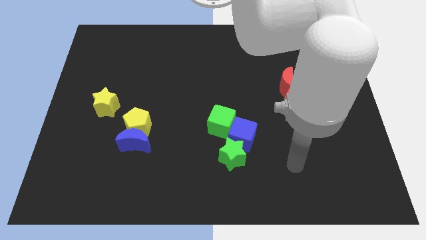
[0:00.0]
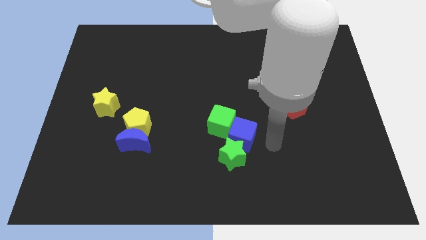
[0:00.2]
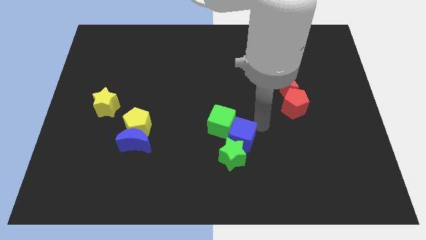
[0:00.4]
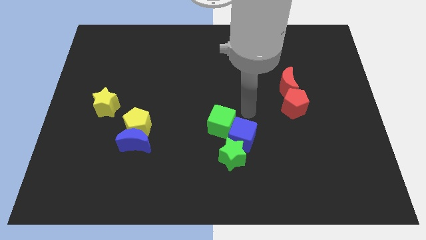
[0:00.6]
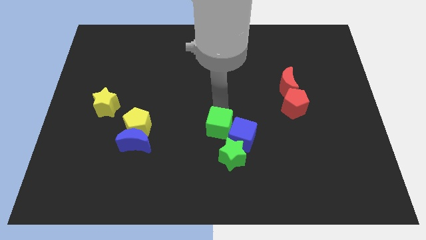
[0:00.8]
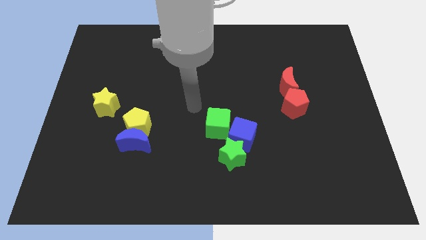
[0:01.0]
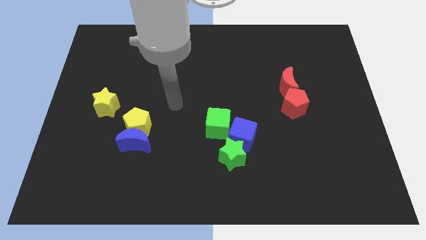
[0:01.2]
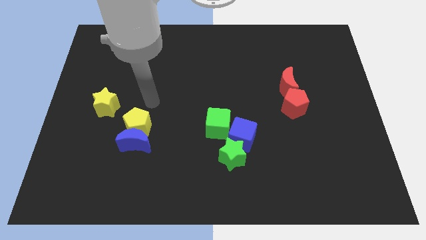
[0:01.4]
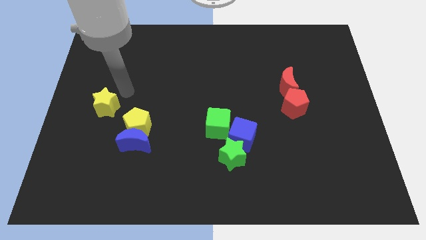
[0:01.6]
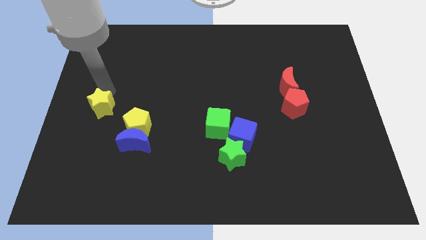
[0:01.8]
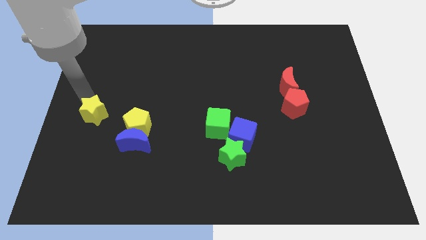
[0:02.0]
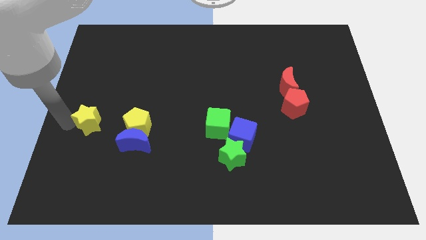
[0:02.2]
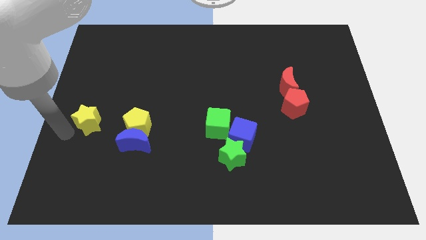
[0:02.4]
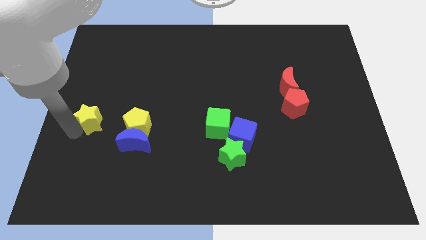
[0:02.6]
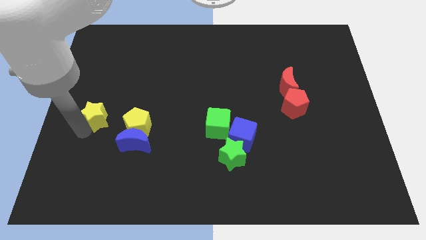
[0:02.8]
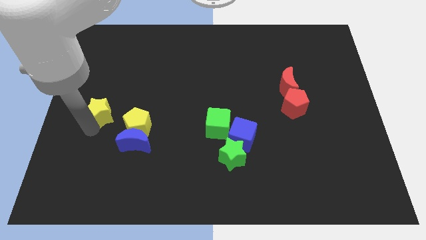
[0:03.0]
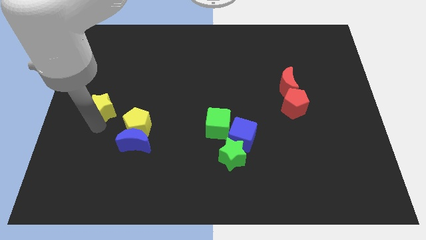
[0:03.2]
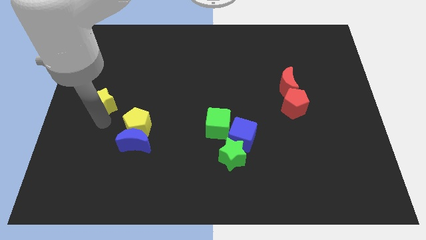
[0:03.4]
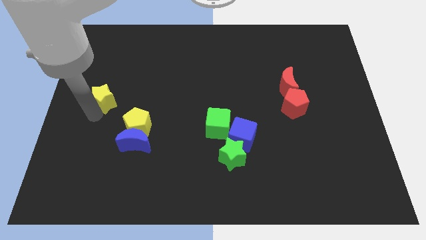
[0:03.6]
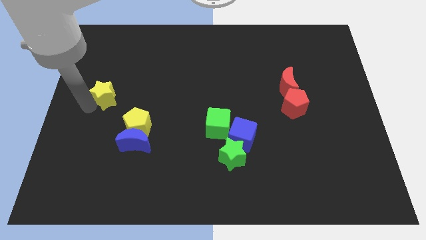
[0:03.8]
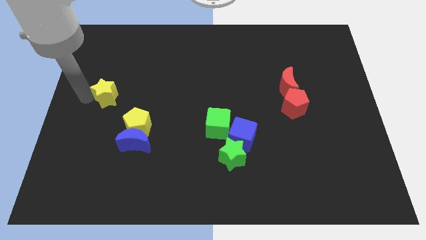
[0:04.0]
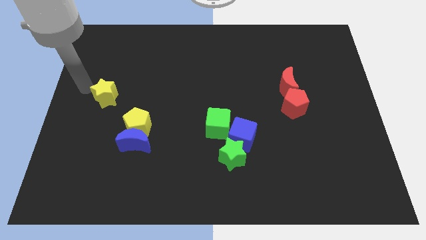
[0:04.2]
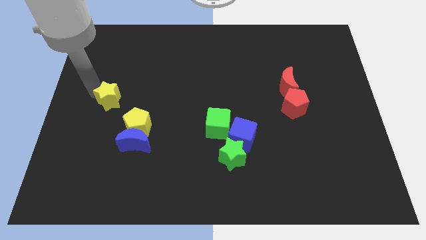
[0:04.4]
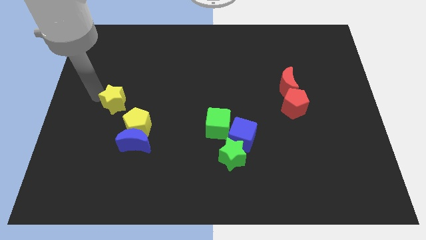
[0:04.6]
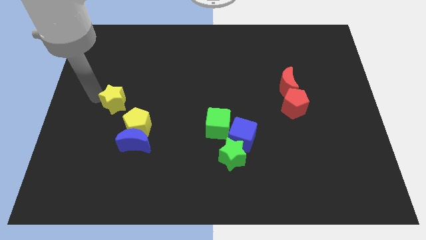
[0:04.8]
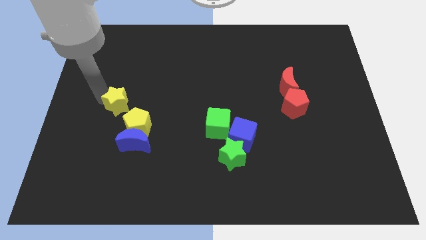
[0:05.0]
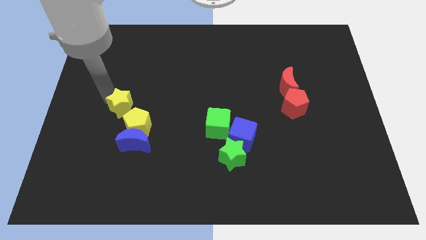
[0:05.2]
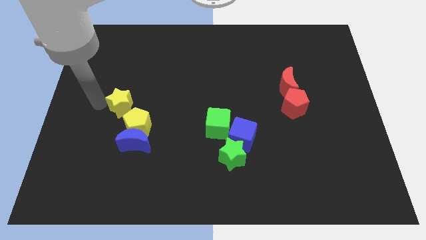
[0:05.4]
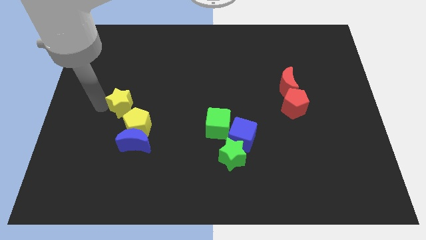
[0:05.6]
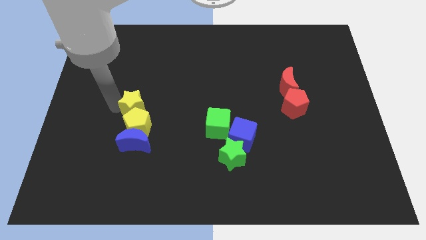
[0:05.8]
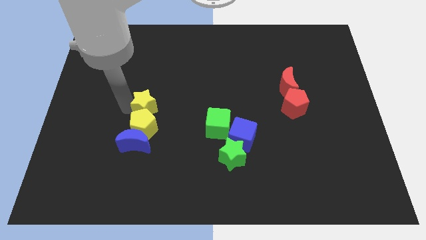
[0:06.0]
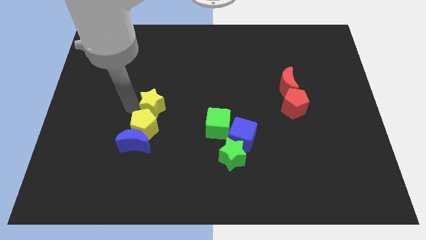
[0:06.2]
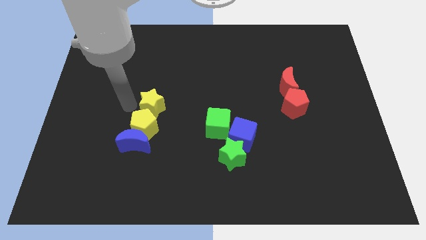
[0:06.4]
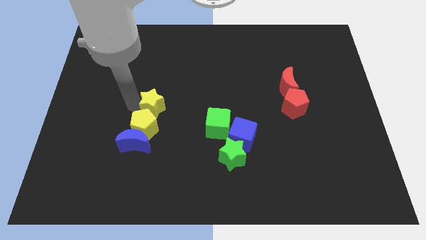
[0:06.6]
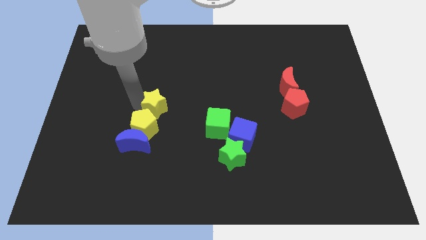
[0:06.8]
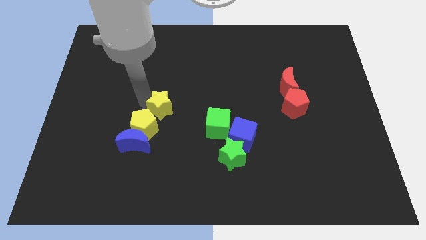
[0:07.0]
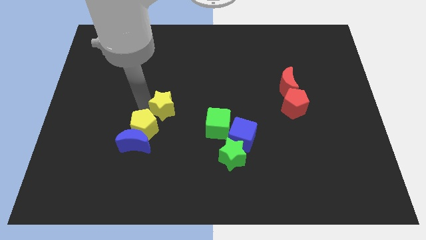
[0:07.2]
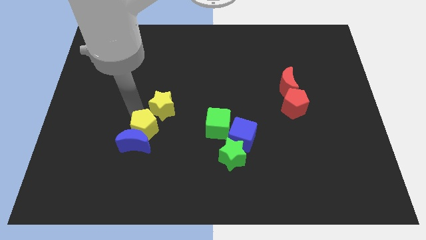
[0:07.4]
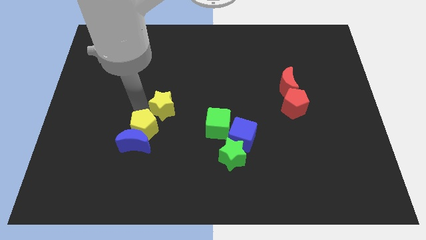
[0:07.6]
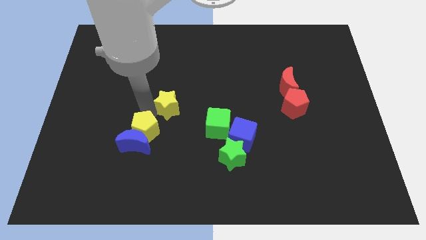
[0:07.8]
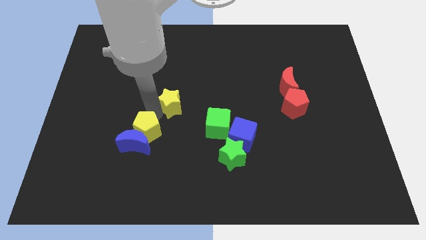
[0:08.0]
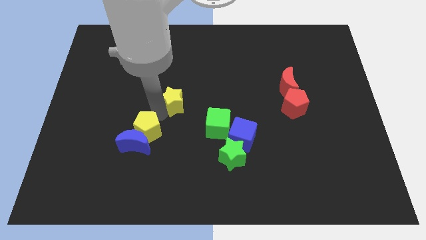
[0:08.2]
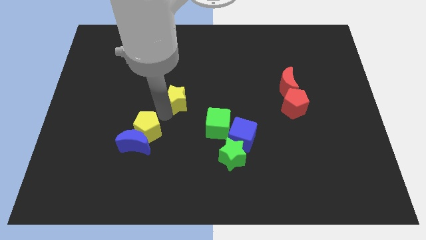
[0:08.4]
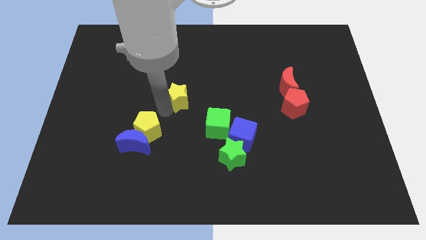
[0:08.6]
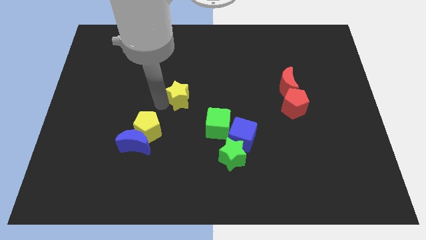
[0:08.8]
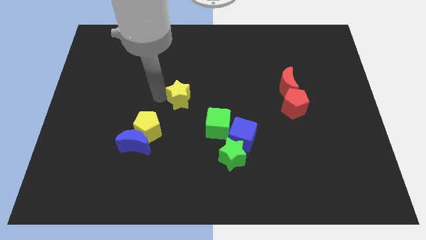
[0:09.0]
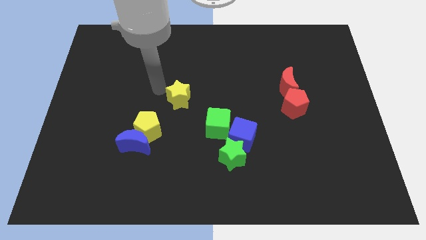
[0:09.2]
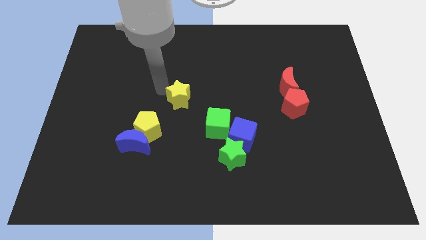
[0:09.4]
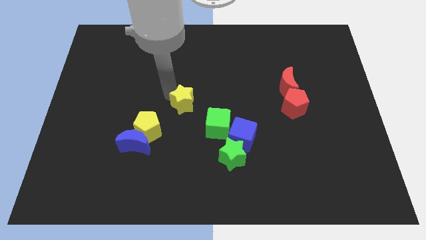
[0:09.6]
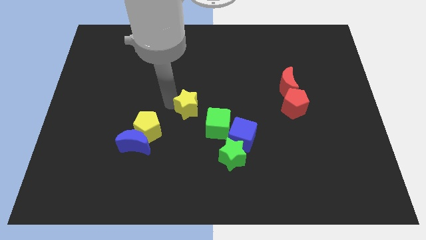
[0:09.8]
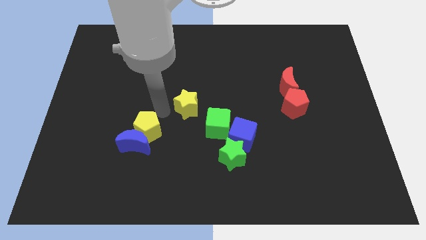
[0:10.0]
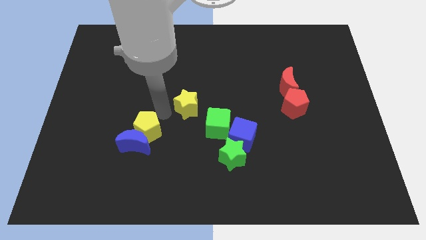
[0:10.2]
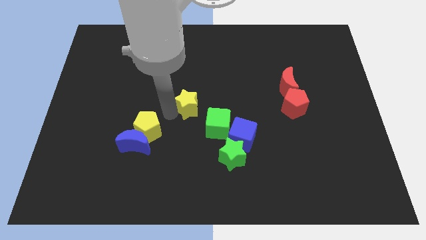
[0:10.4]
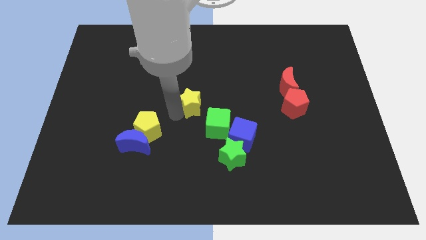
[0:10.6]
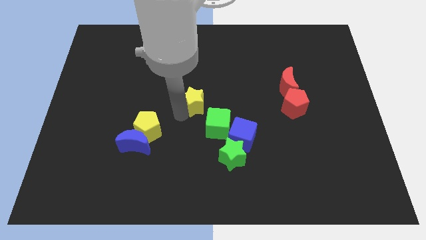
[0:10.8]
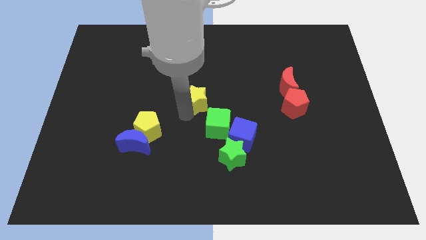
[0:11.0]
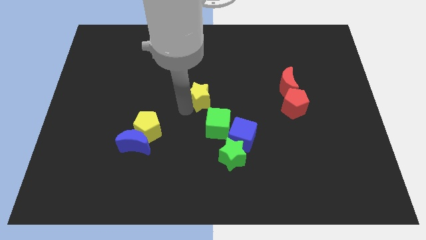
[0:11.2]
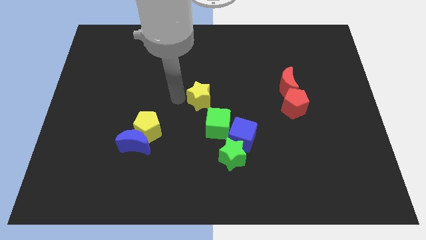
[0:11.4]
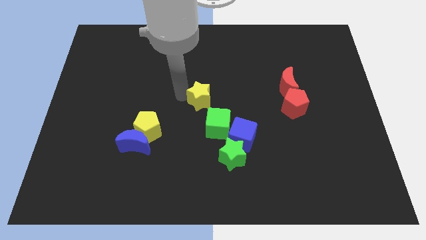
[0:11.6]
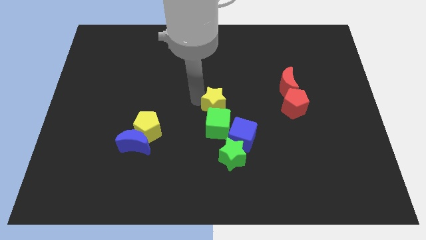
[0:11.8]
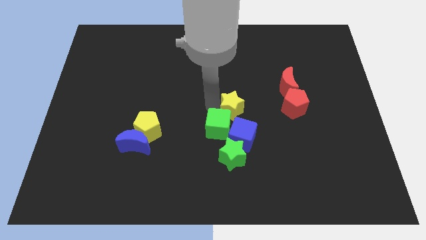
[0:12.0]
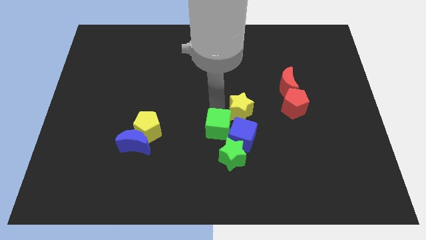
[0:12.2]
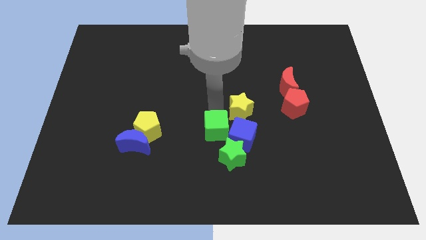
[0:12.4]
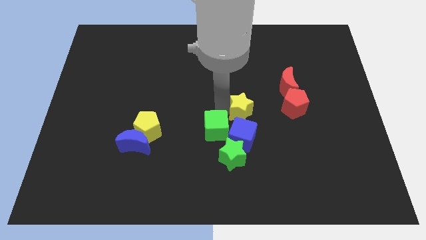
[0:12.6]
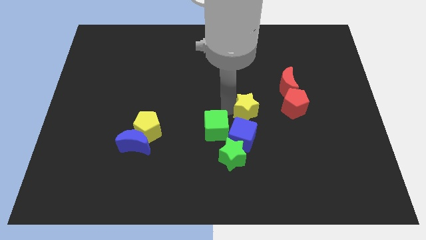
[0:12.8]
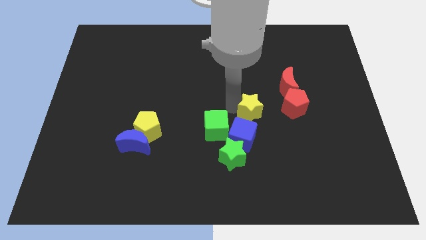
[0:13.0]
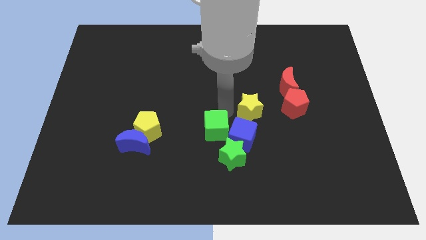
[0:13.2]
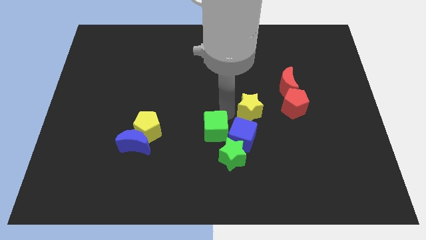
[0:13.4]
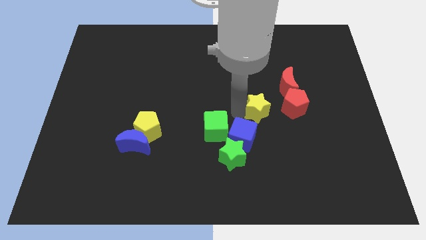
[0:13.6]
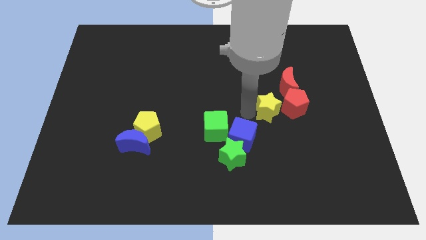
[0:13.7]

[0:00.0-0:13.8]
slide the yellow star to the red pentagon
